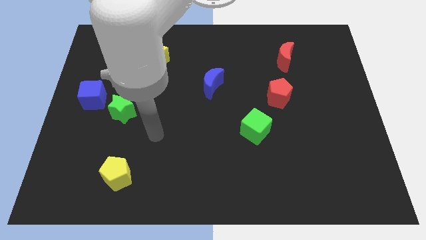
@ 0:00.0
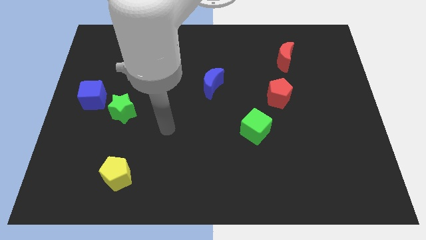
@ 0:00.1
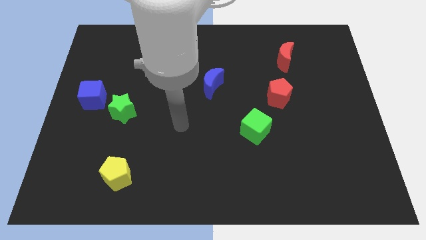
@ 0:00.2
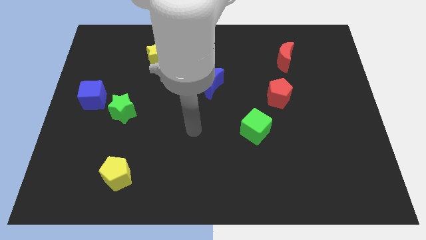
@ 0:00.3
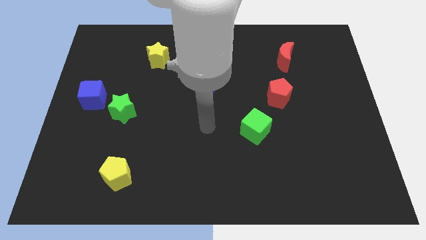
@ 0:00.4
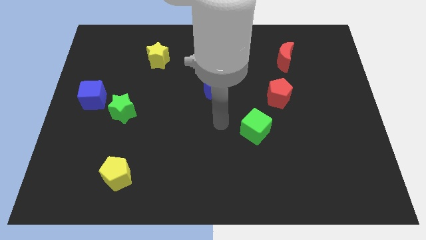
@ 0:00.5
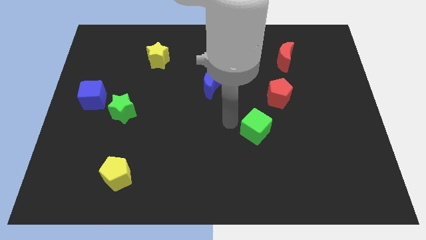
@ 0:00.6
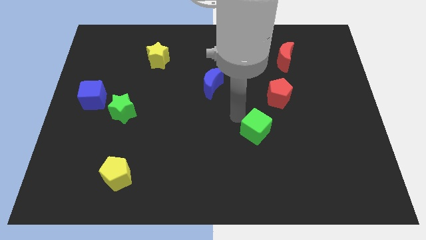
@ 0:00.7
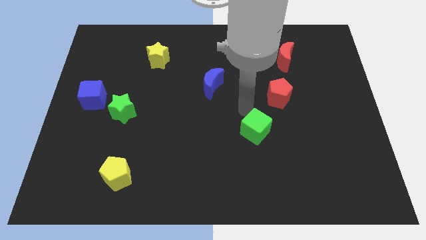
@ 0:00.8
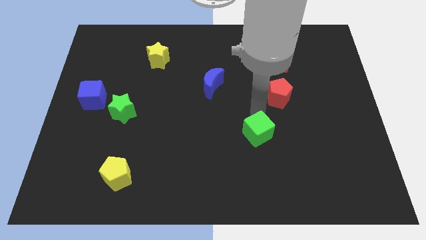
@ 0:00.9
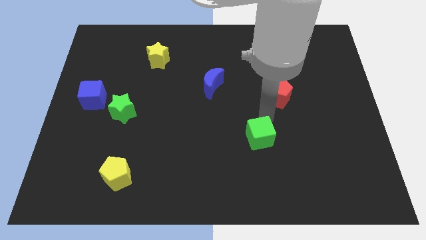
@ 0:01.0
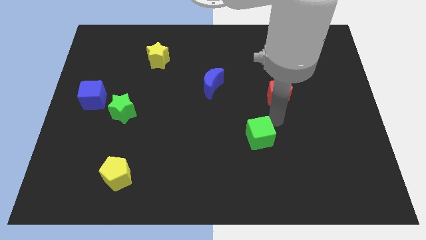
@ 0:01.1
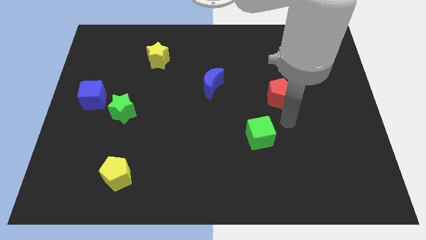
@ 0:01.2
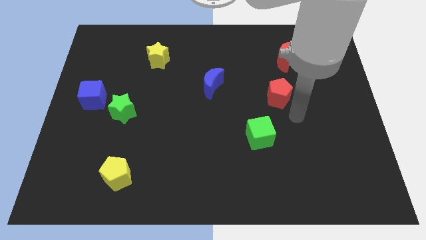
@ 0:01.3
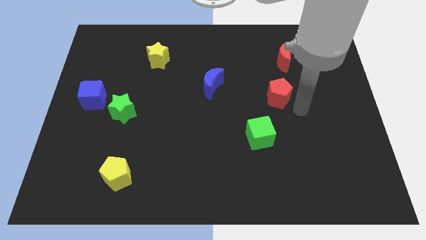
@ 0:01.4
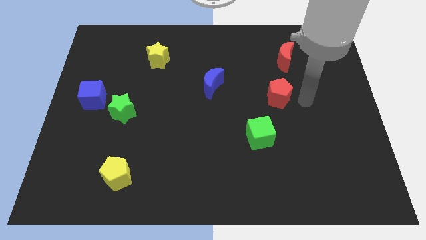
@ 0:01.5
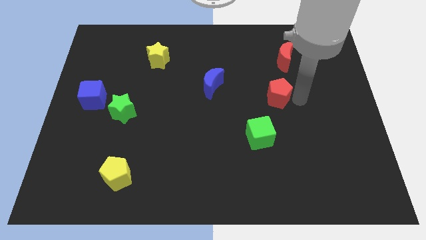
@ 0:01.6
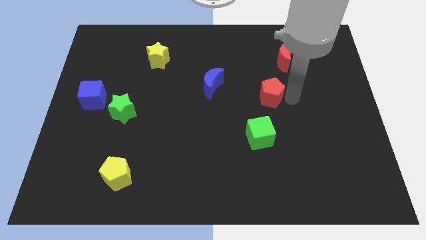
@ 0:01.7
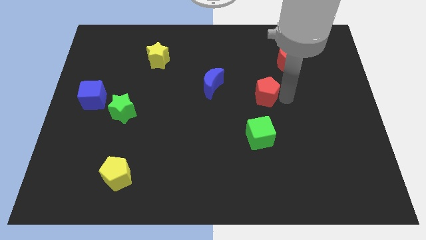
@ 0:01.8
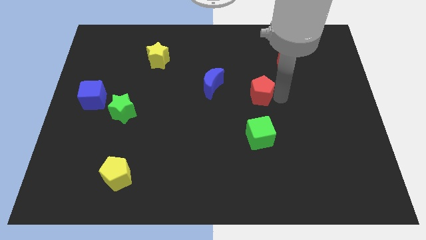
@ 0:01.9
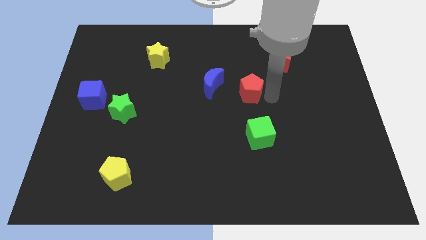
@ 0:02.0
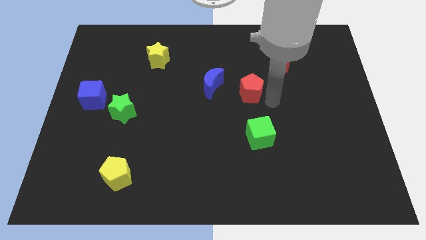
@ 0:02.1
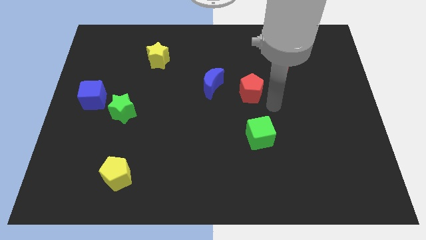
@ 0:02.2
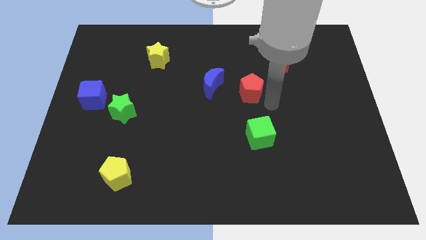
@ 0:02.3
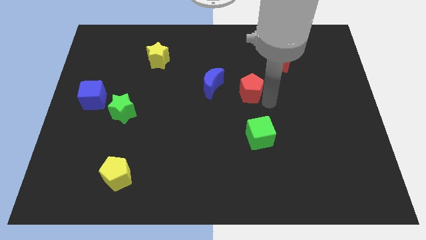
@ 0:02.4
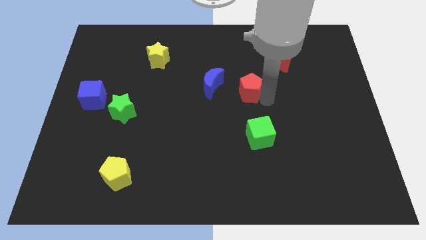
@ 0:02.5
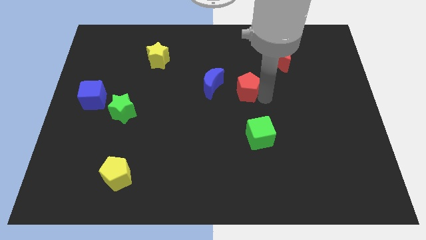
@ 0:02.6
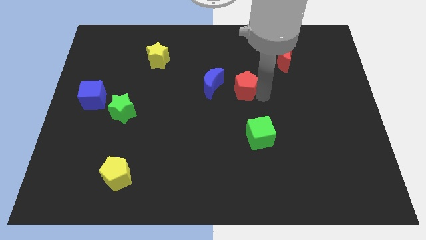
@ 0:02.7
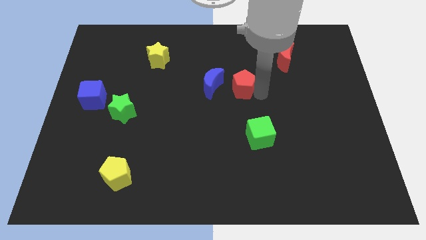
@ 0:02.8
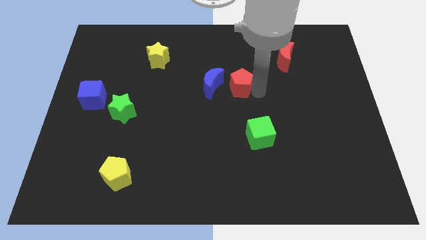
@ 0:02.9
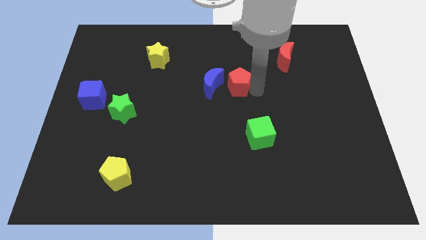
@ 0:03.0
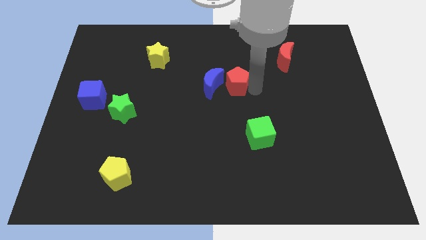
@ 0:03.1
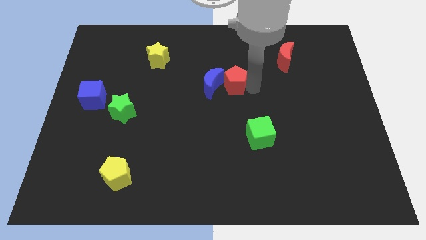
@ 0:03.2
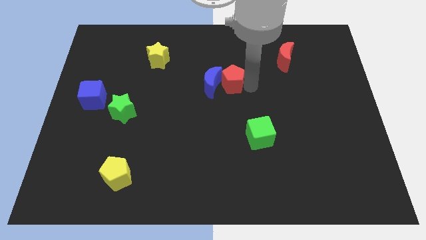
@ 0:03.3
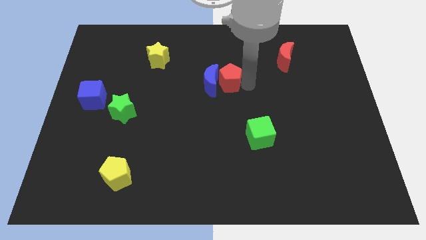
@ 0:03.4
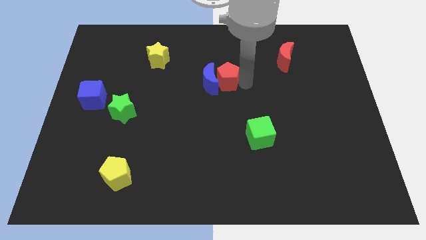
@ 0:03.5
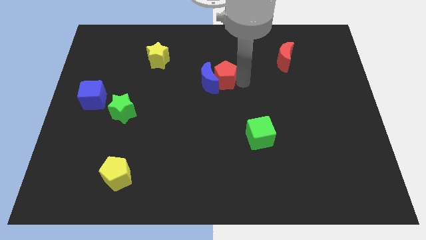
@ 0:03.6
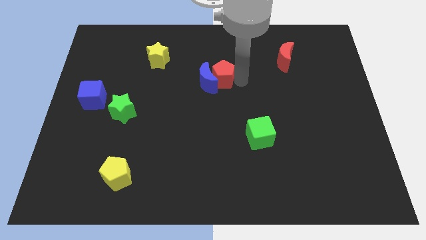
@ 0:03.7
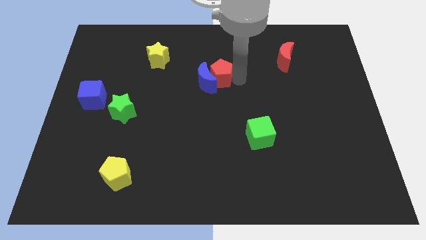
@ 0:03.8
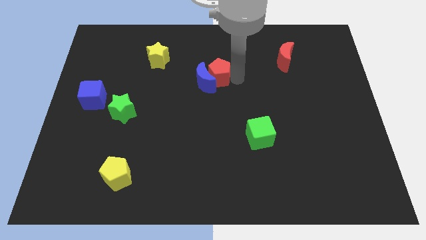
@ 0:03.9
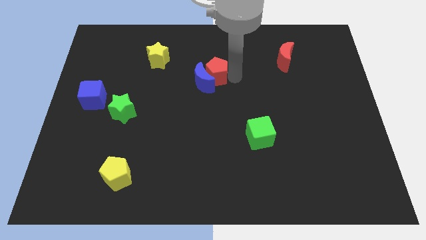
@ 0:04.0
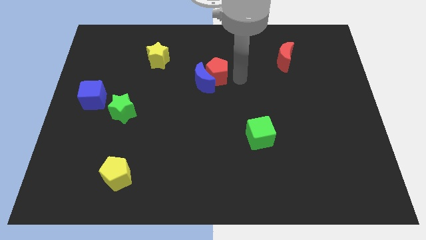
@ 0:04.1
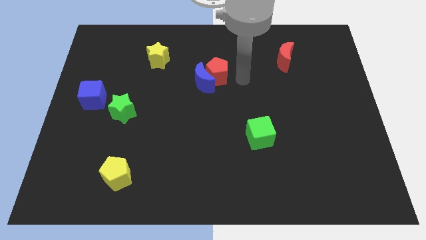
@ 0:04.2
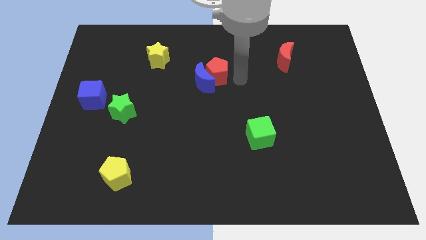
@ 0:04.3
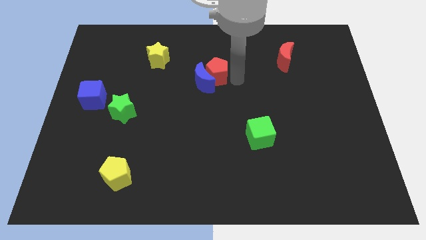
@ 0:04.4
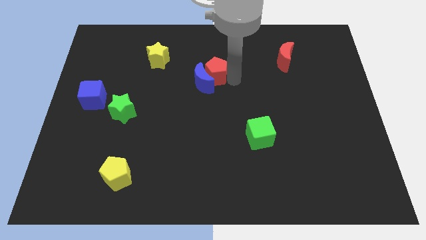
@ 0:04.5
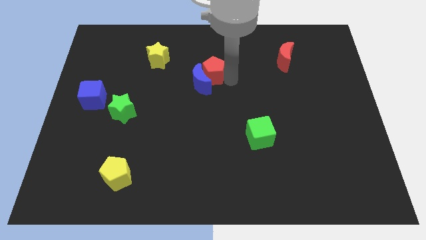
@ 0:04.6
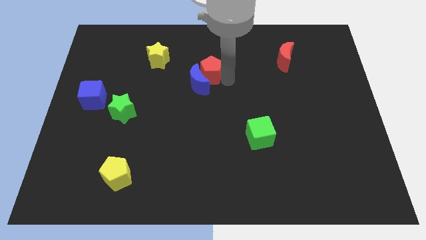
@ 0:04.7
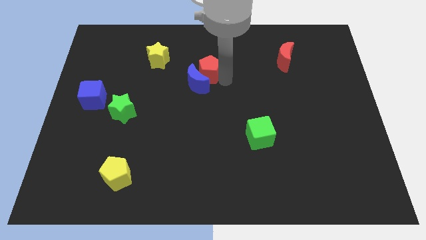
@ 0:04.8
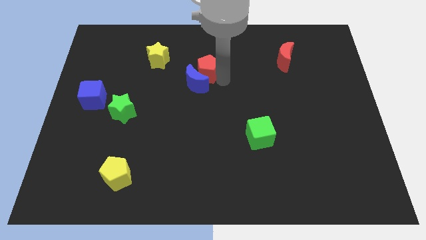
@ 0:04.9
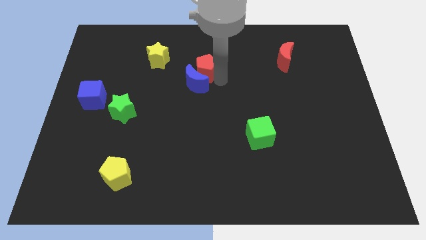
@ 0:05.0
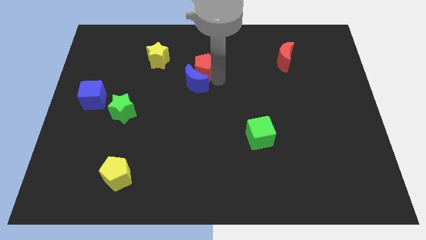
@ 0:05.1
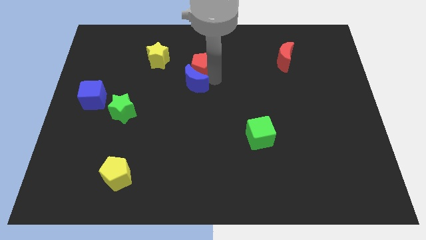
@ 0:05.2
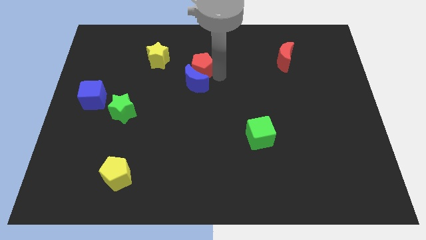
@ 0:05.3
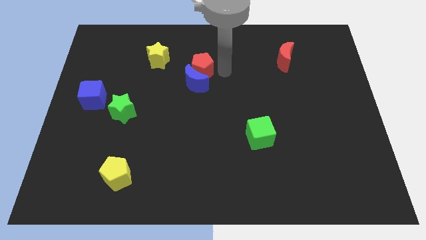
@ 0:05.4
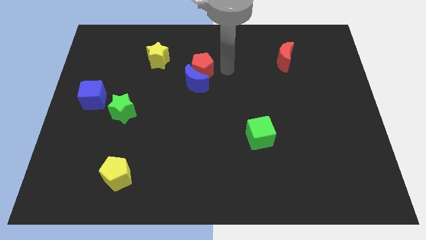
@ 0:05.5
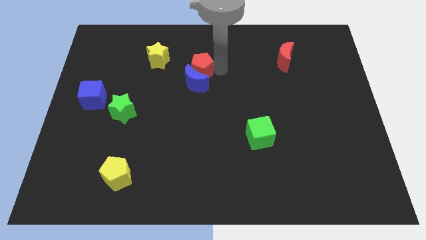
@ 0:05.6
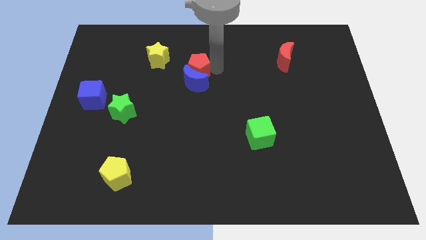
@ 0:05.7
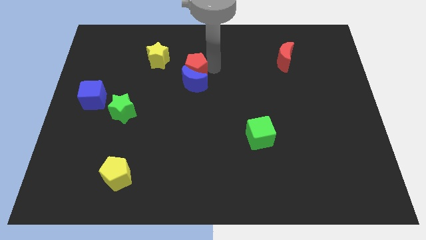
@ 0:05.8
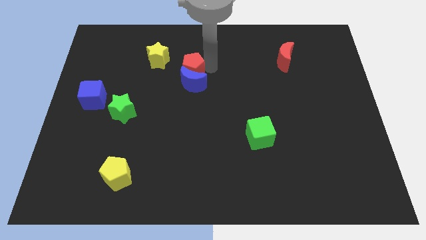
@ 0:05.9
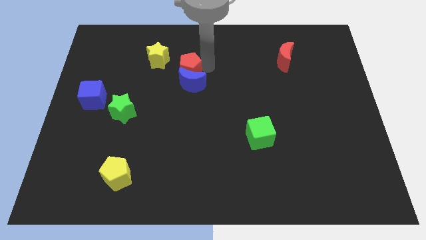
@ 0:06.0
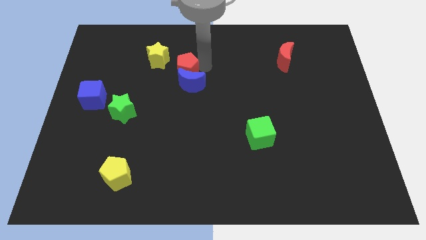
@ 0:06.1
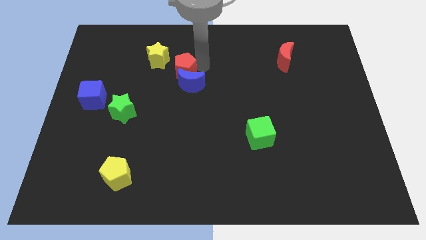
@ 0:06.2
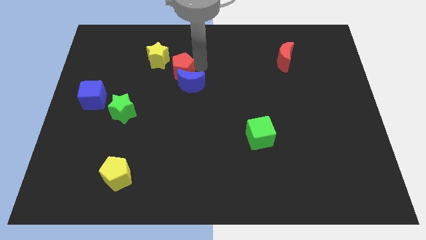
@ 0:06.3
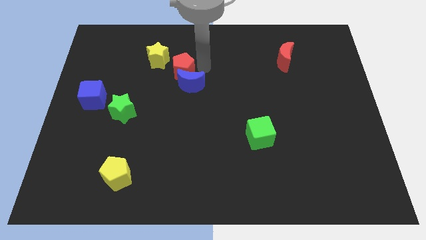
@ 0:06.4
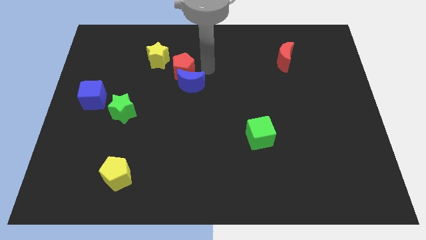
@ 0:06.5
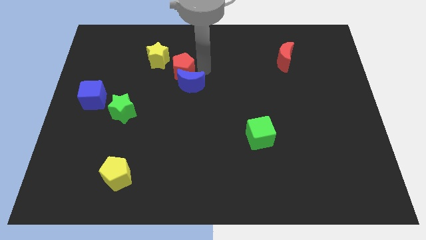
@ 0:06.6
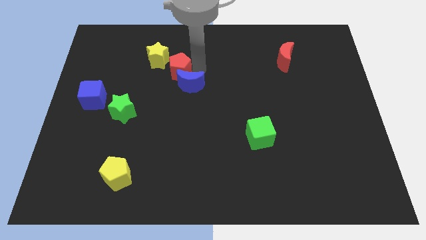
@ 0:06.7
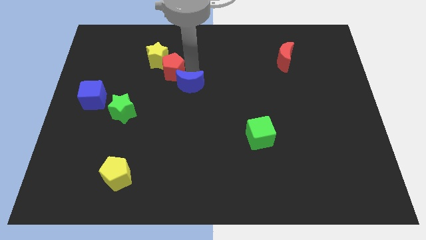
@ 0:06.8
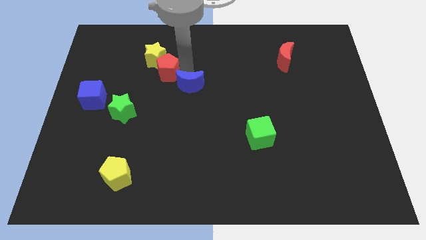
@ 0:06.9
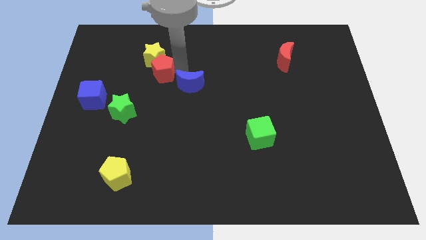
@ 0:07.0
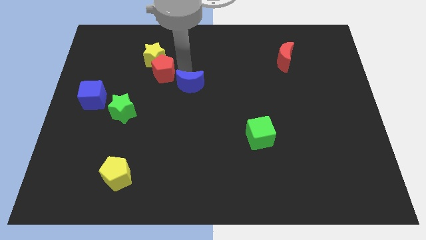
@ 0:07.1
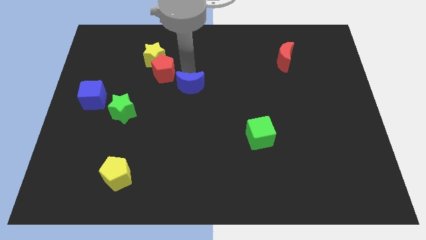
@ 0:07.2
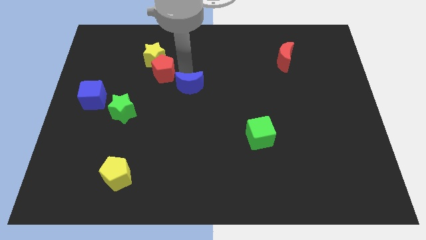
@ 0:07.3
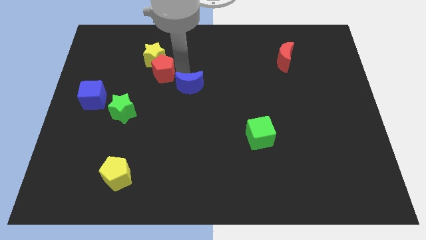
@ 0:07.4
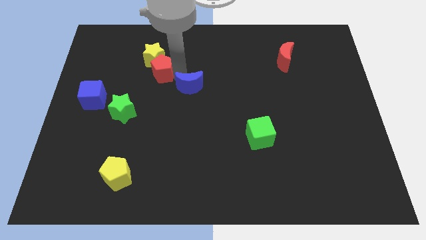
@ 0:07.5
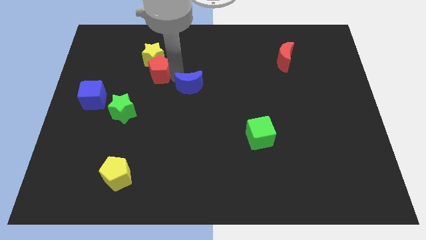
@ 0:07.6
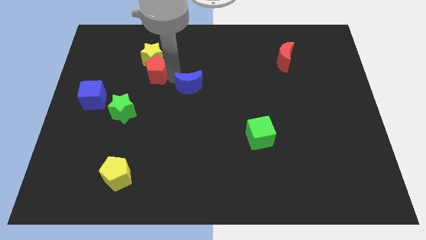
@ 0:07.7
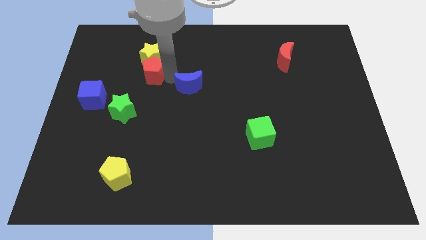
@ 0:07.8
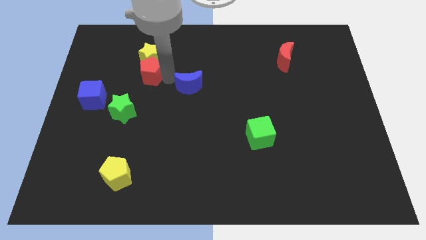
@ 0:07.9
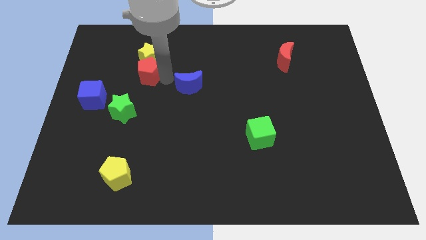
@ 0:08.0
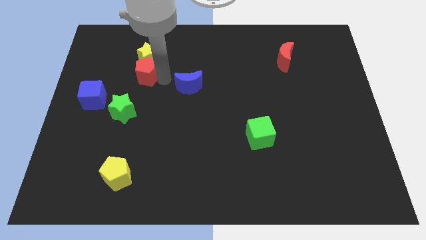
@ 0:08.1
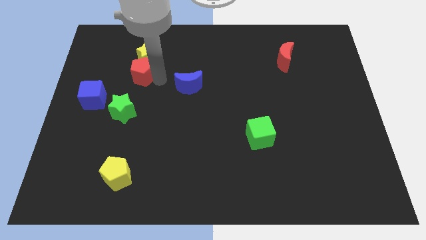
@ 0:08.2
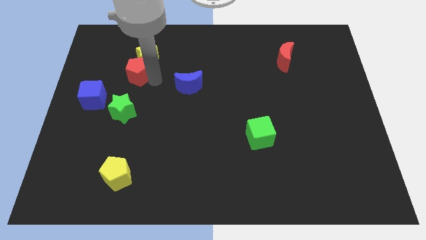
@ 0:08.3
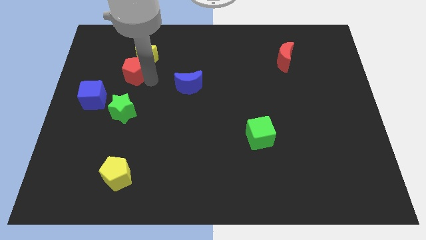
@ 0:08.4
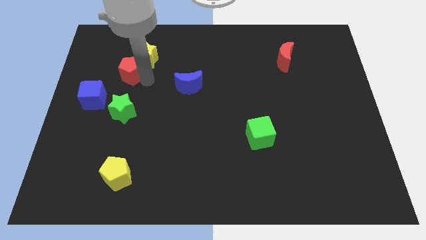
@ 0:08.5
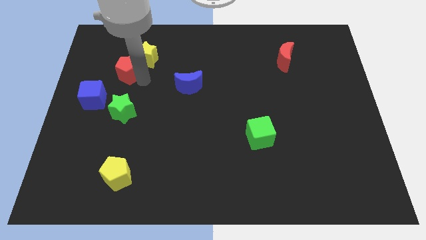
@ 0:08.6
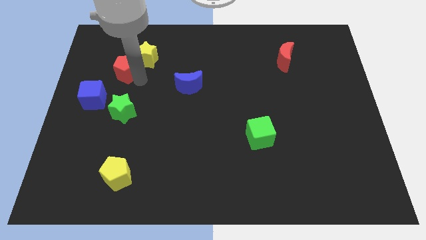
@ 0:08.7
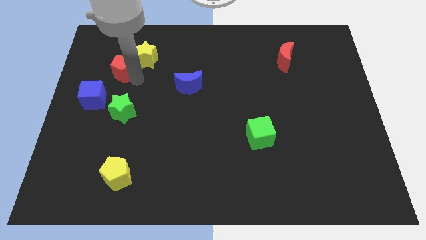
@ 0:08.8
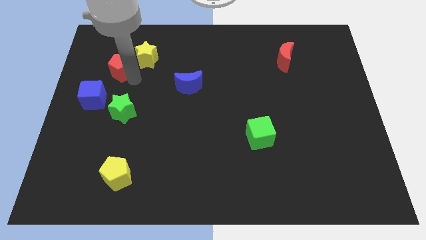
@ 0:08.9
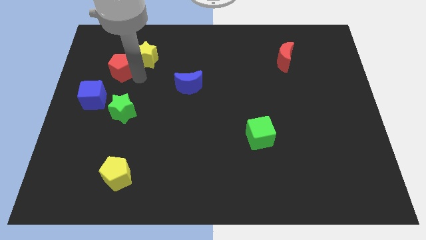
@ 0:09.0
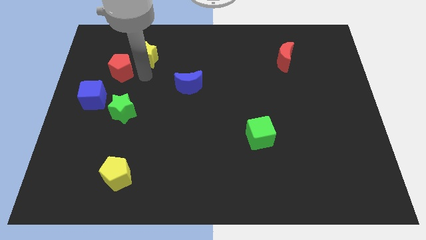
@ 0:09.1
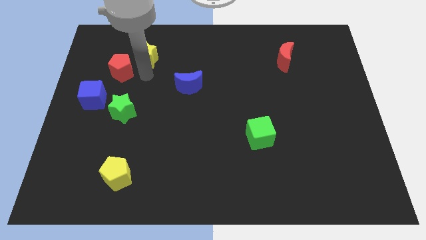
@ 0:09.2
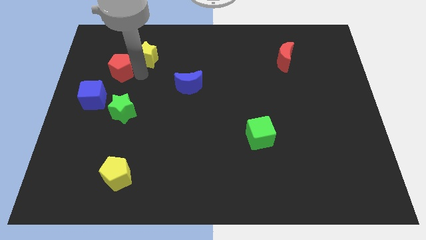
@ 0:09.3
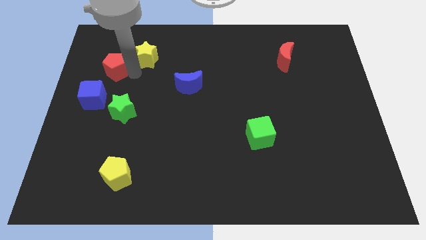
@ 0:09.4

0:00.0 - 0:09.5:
slide the red pentagon above the blue cube
